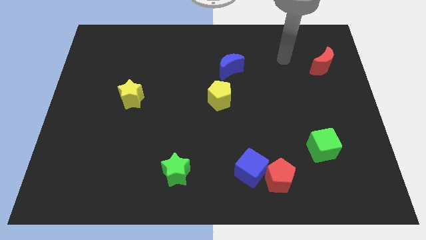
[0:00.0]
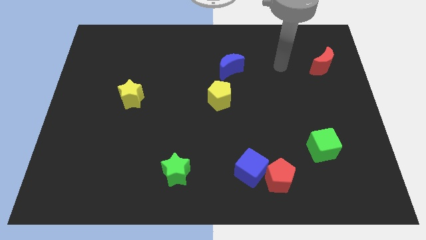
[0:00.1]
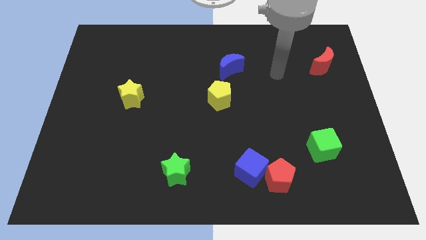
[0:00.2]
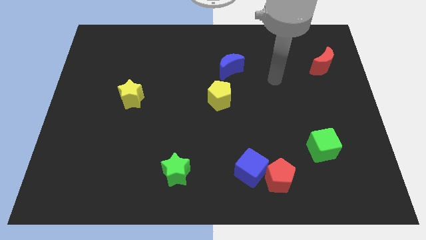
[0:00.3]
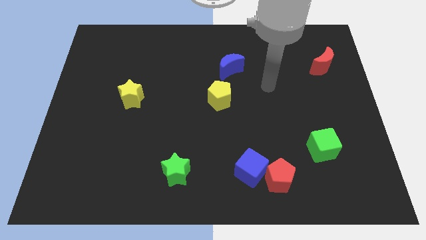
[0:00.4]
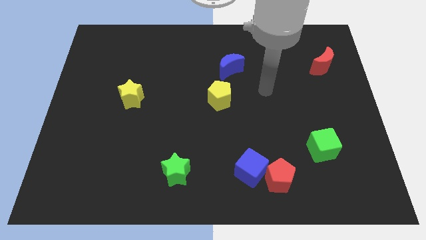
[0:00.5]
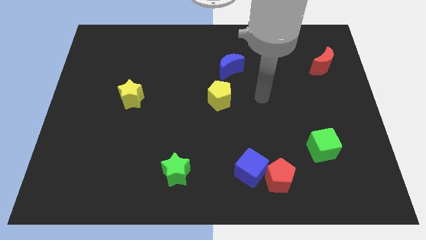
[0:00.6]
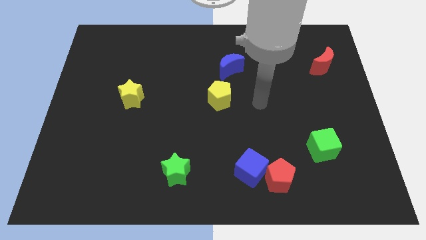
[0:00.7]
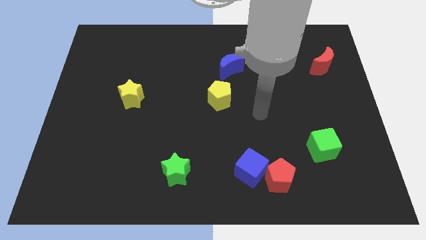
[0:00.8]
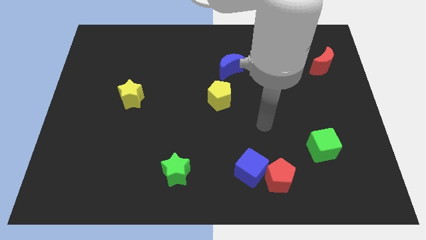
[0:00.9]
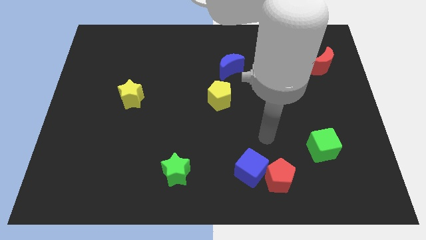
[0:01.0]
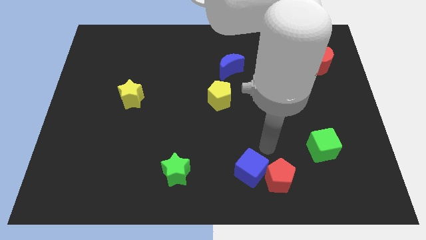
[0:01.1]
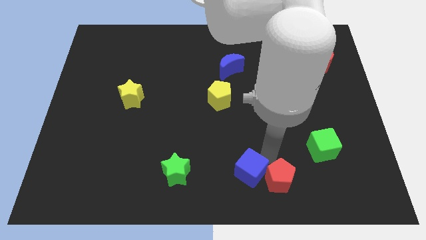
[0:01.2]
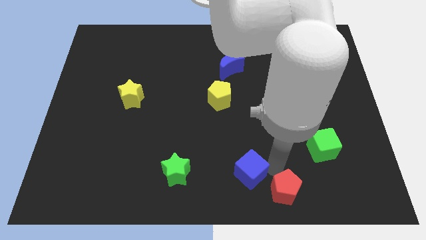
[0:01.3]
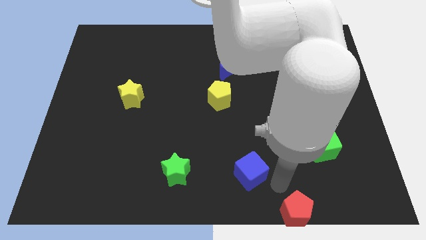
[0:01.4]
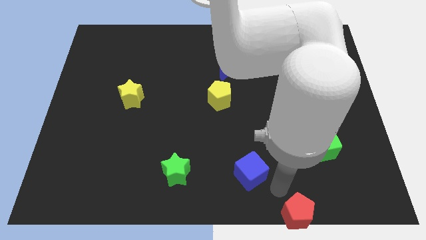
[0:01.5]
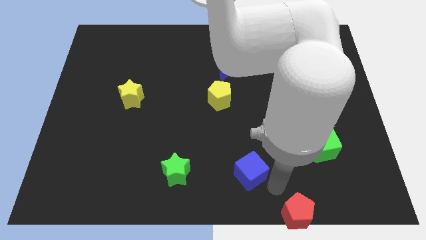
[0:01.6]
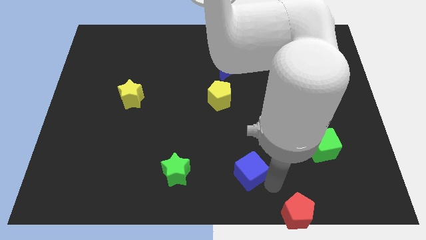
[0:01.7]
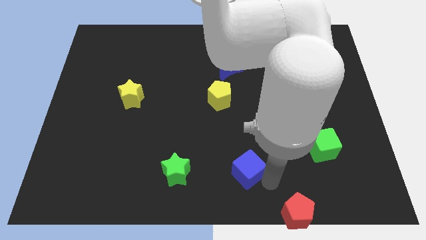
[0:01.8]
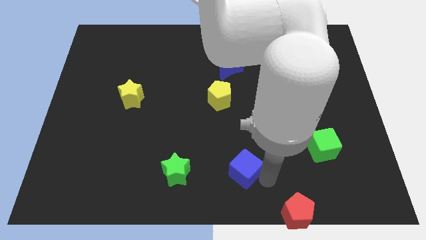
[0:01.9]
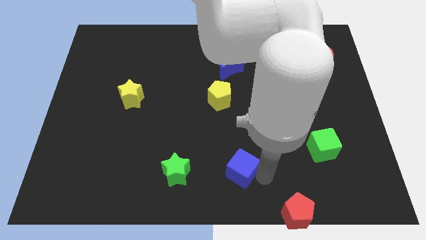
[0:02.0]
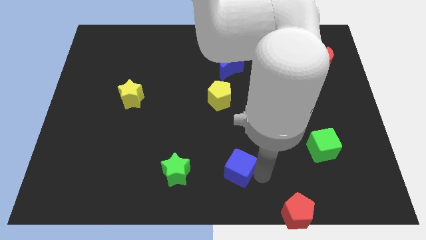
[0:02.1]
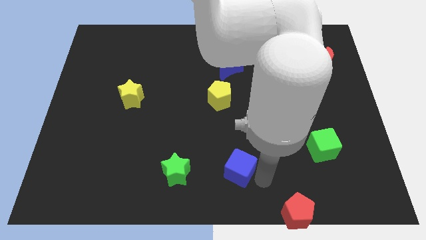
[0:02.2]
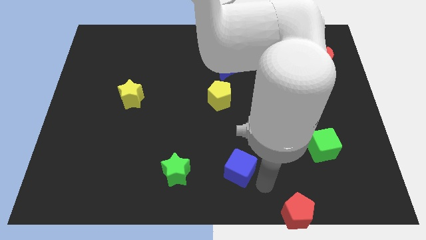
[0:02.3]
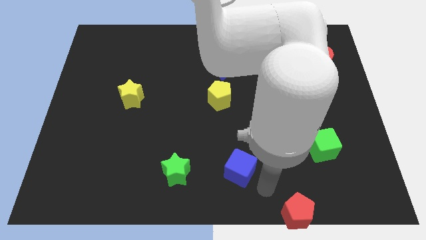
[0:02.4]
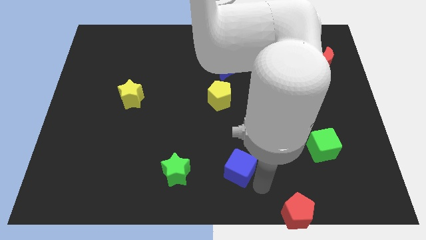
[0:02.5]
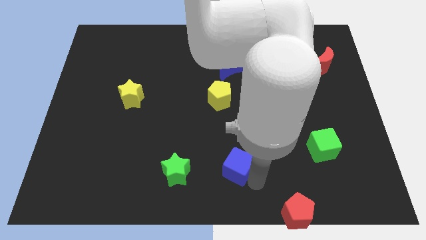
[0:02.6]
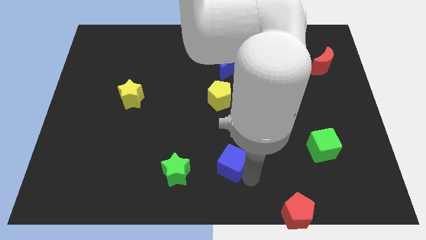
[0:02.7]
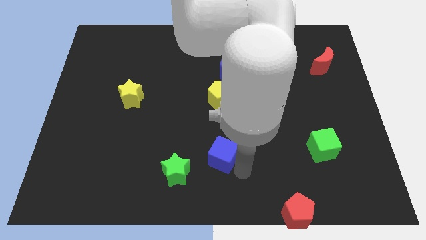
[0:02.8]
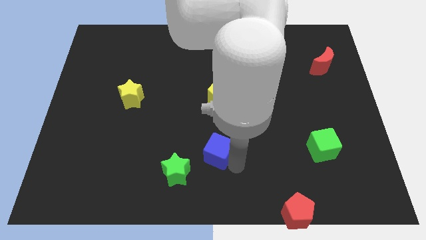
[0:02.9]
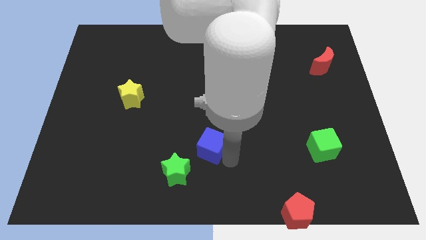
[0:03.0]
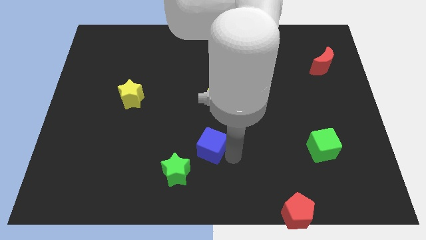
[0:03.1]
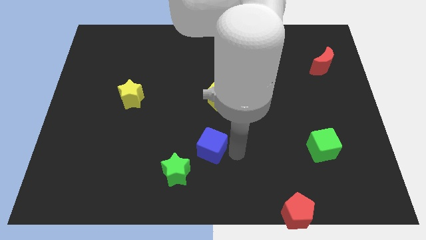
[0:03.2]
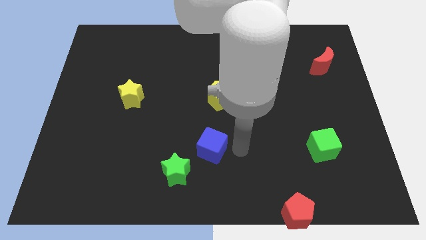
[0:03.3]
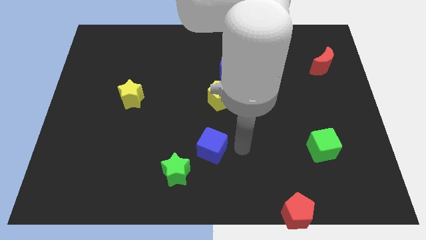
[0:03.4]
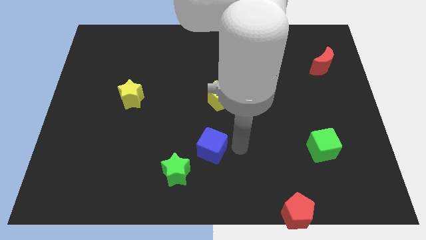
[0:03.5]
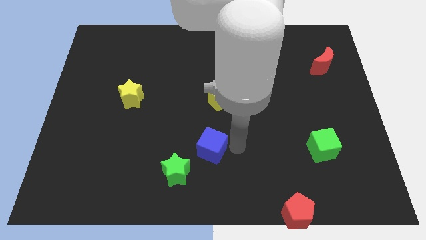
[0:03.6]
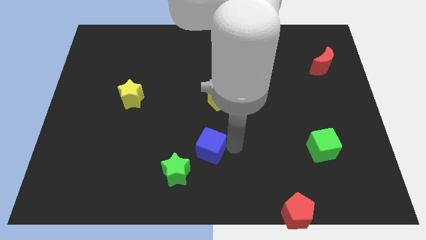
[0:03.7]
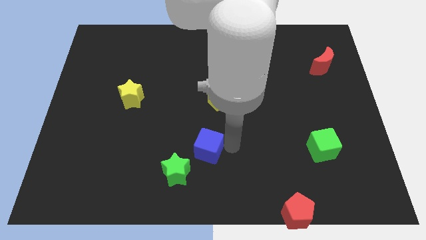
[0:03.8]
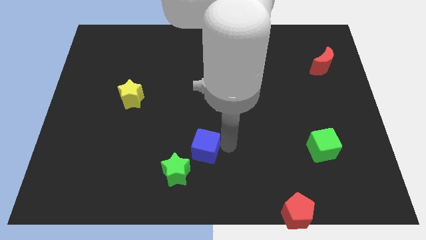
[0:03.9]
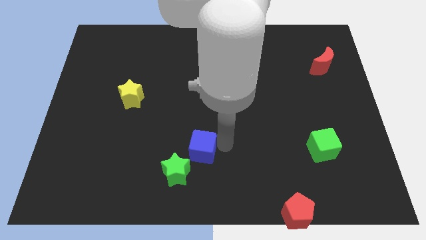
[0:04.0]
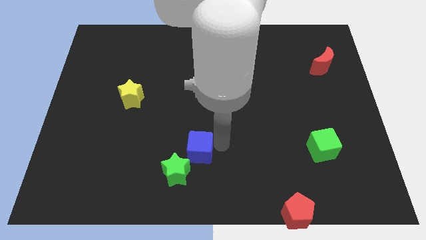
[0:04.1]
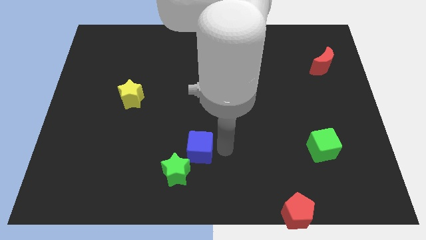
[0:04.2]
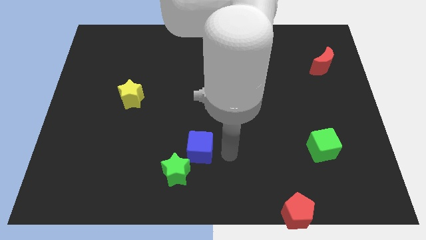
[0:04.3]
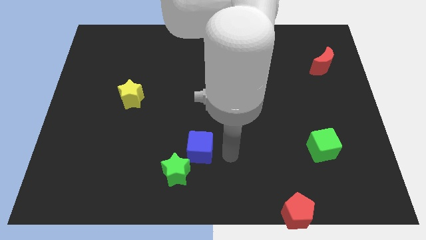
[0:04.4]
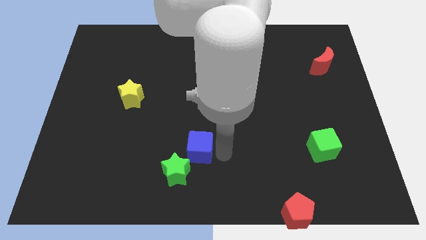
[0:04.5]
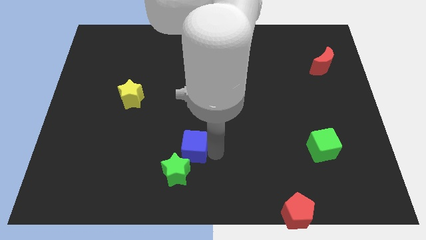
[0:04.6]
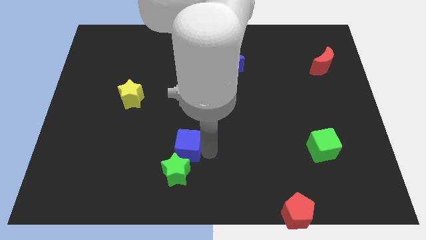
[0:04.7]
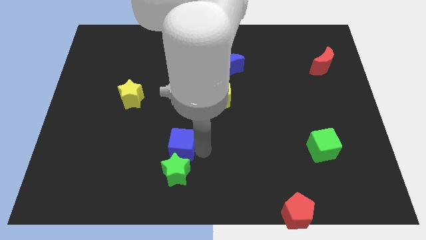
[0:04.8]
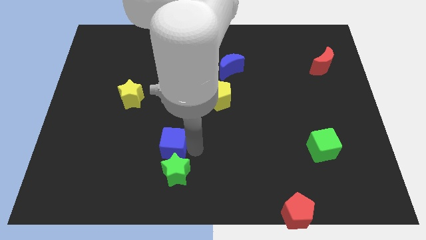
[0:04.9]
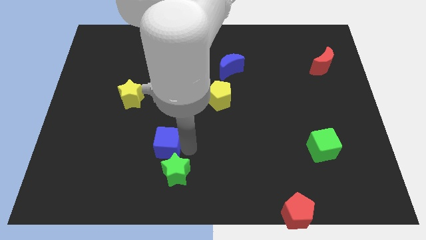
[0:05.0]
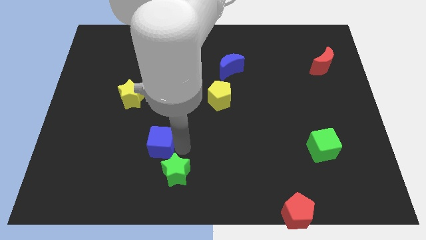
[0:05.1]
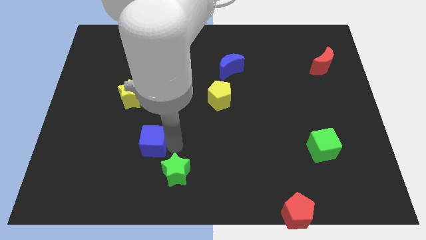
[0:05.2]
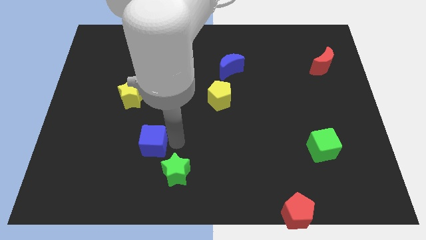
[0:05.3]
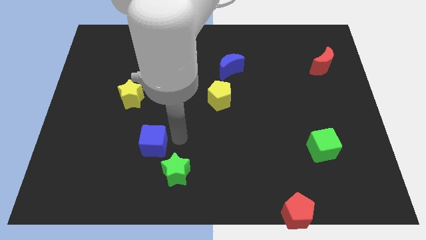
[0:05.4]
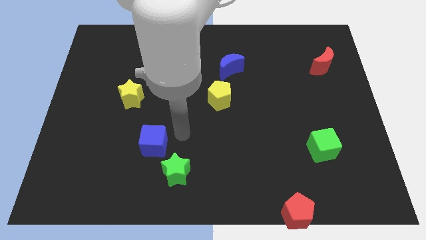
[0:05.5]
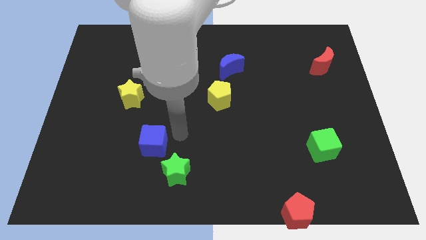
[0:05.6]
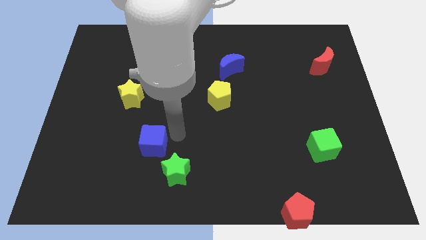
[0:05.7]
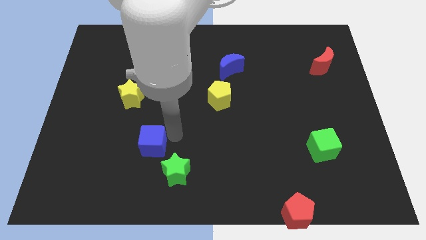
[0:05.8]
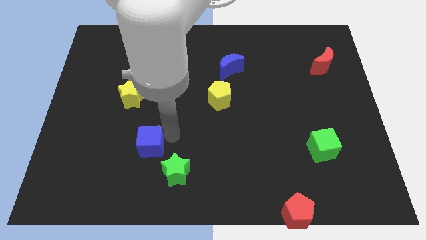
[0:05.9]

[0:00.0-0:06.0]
move the blue cube left

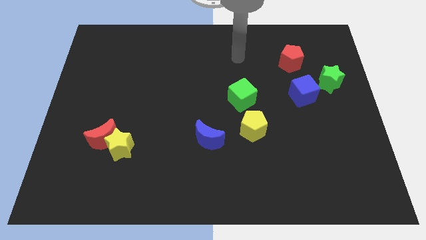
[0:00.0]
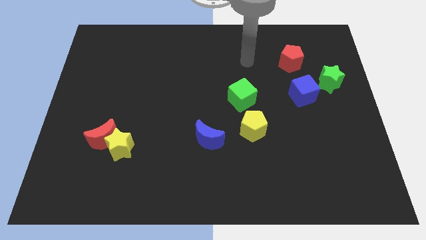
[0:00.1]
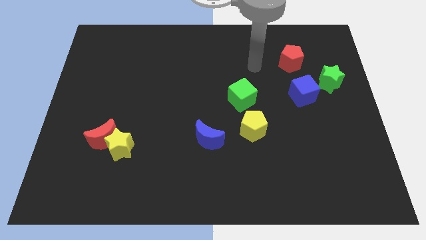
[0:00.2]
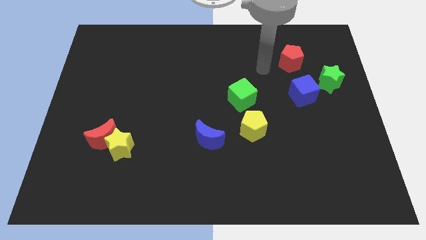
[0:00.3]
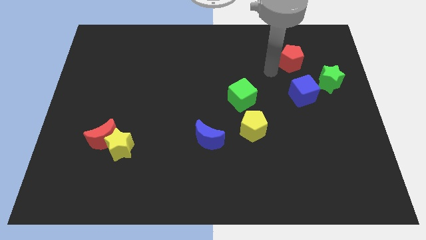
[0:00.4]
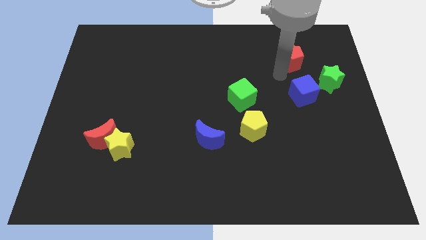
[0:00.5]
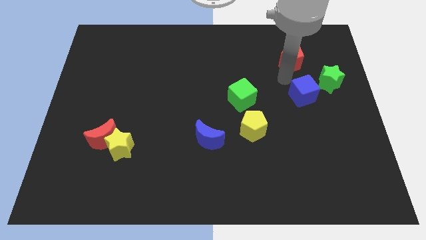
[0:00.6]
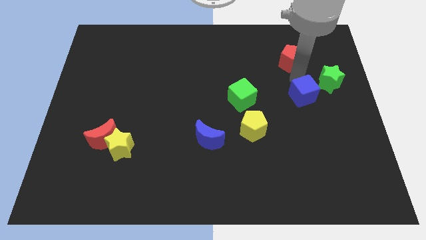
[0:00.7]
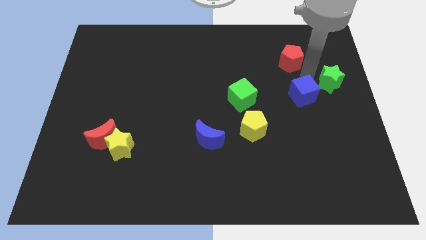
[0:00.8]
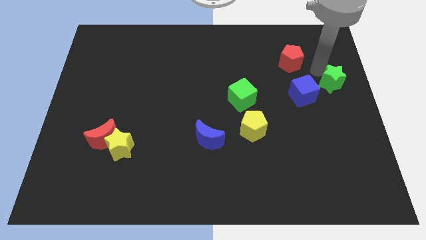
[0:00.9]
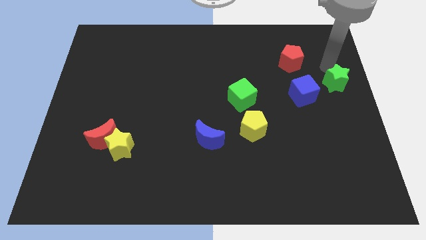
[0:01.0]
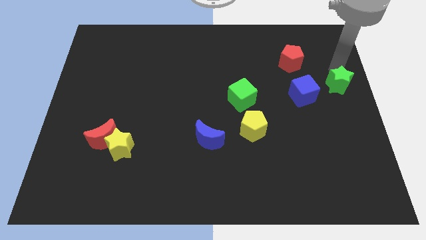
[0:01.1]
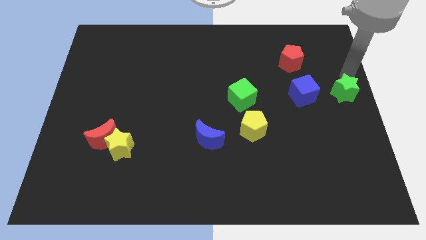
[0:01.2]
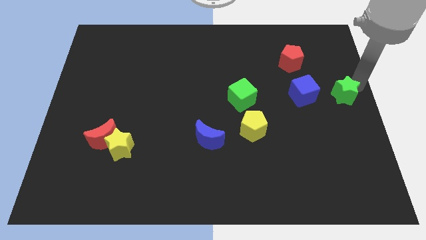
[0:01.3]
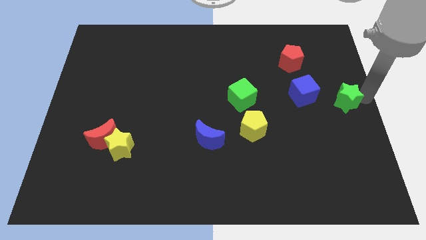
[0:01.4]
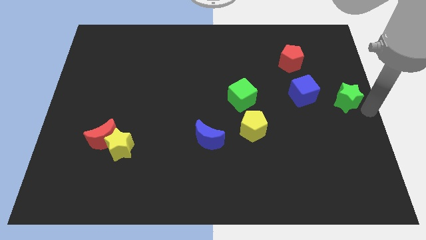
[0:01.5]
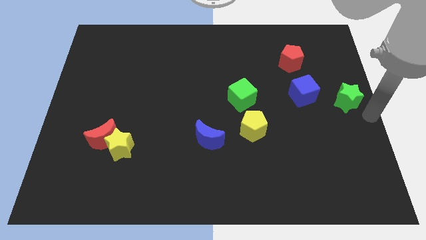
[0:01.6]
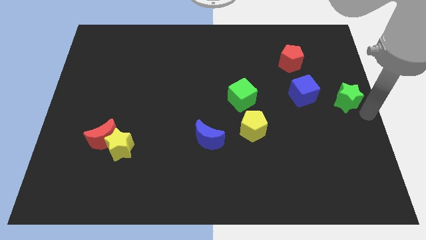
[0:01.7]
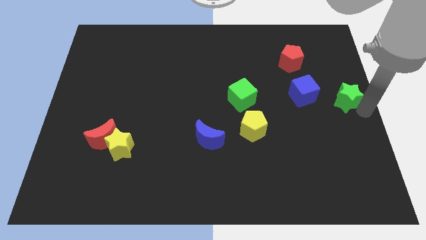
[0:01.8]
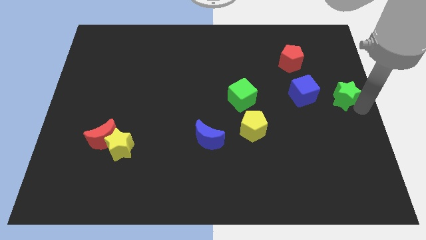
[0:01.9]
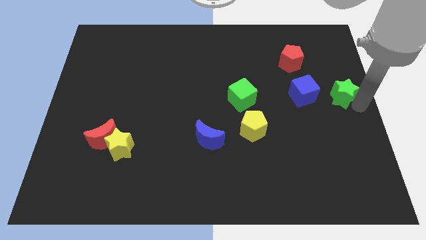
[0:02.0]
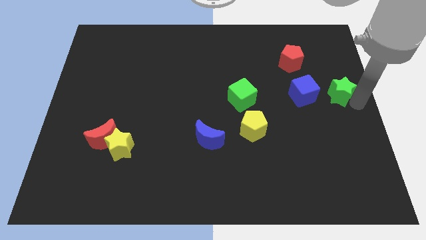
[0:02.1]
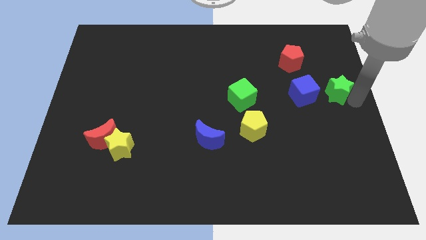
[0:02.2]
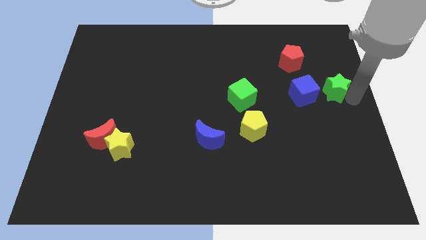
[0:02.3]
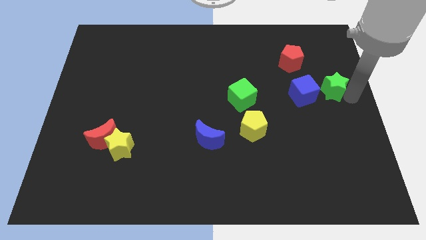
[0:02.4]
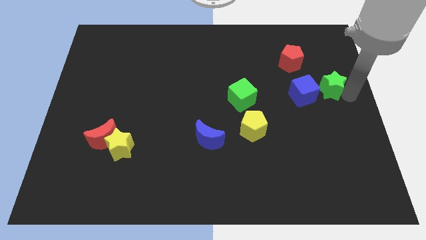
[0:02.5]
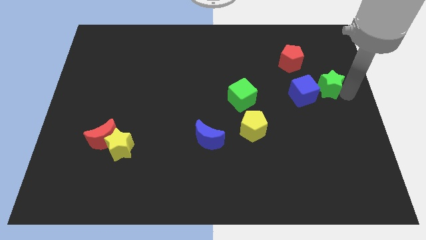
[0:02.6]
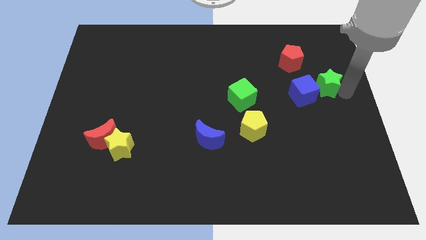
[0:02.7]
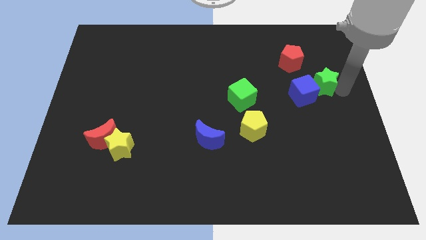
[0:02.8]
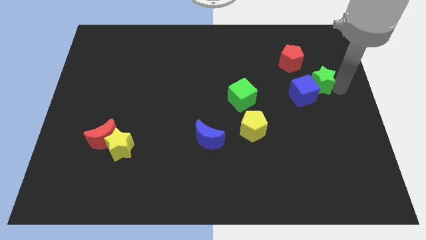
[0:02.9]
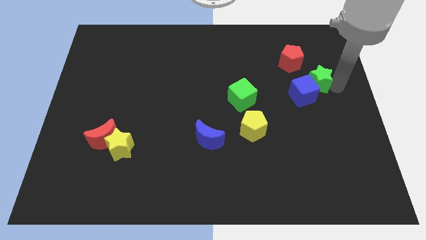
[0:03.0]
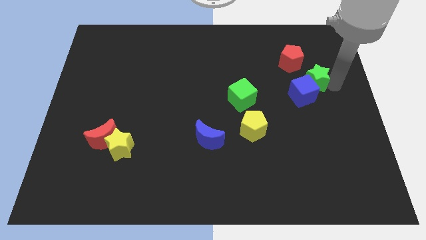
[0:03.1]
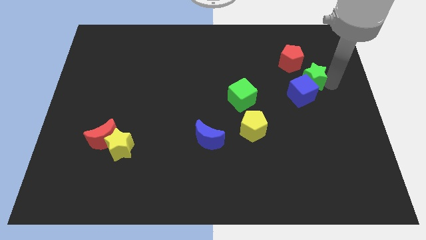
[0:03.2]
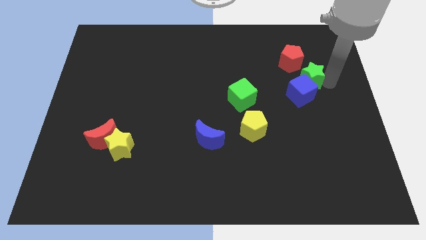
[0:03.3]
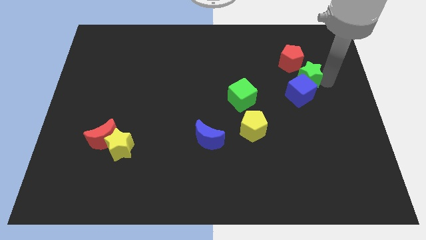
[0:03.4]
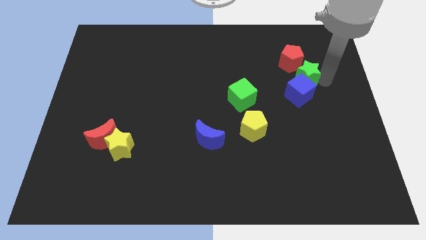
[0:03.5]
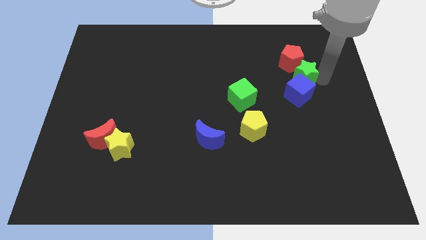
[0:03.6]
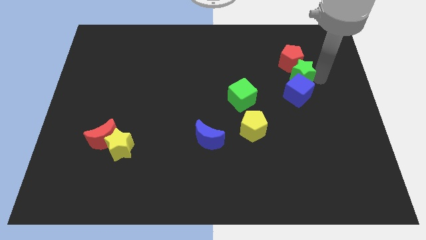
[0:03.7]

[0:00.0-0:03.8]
slightly move the green star to the left
